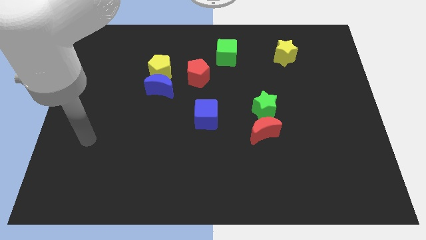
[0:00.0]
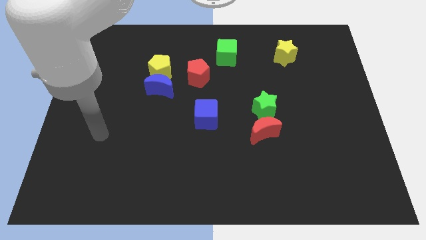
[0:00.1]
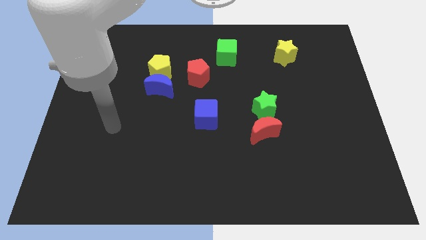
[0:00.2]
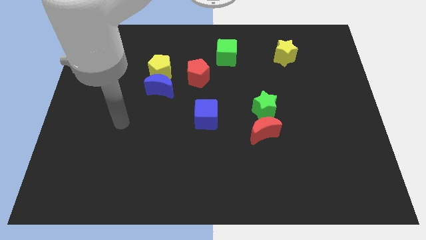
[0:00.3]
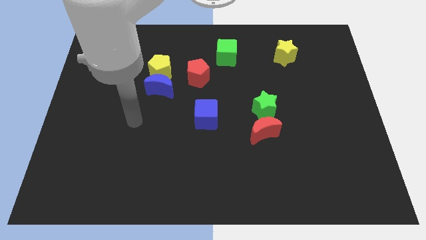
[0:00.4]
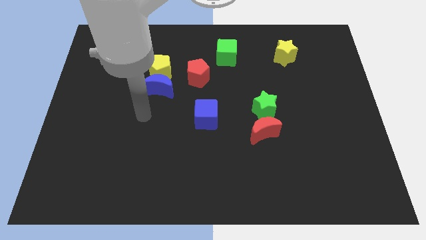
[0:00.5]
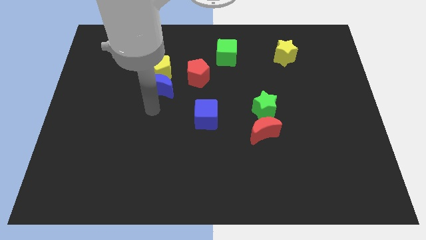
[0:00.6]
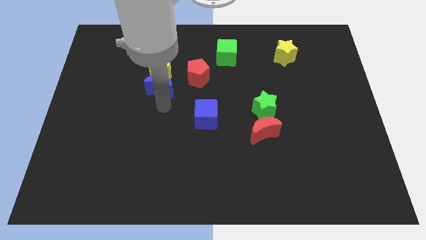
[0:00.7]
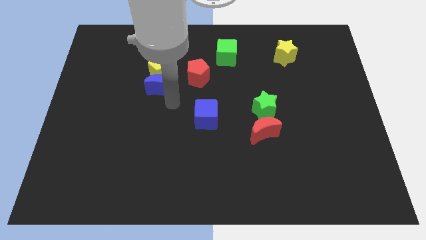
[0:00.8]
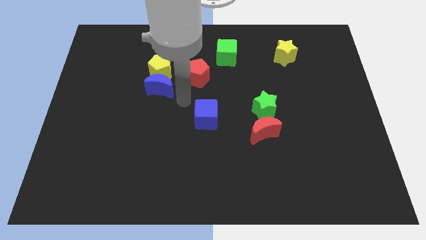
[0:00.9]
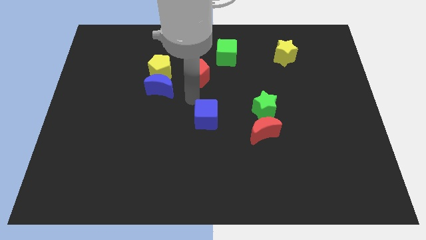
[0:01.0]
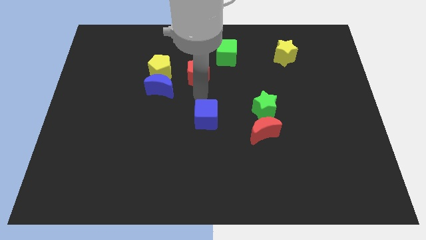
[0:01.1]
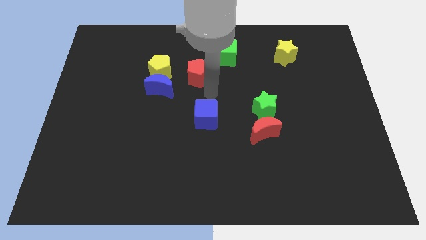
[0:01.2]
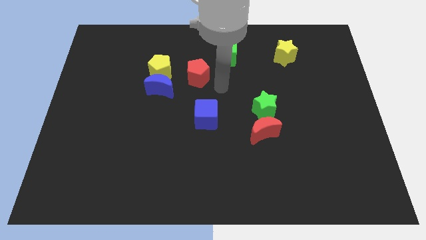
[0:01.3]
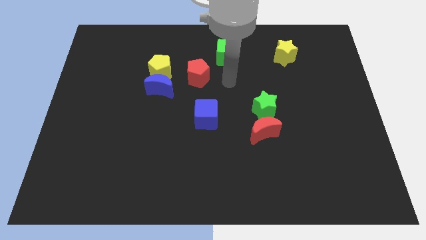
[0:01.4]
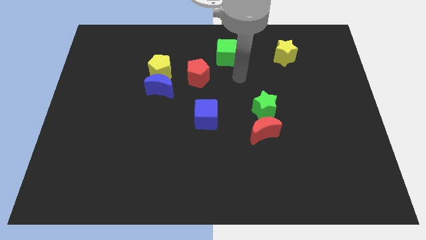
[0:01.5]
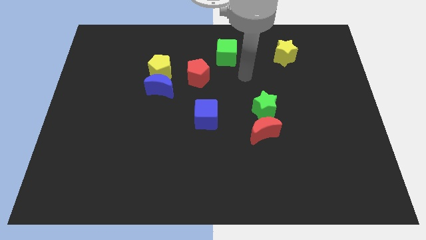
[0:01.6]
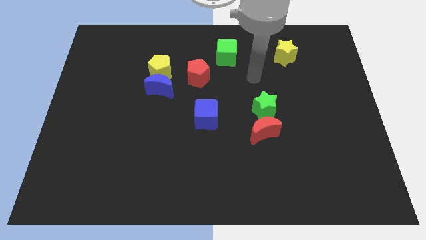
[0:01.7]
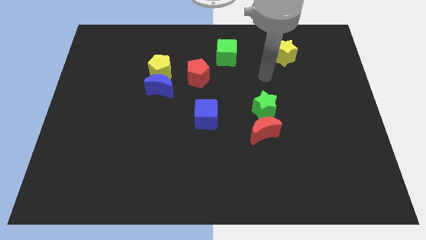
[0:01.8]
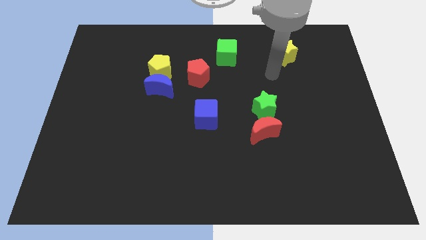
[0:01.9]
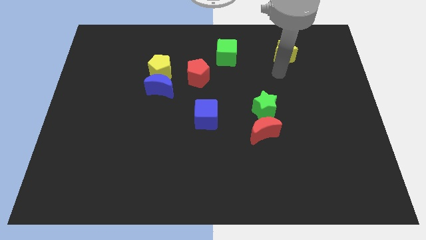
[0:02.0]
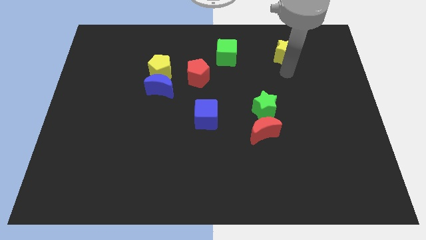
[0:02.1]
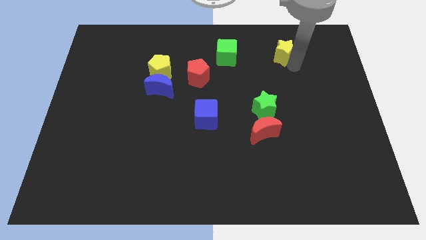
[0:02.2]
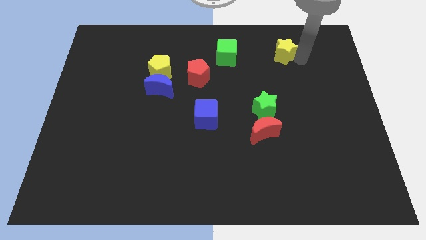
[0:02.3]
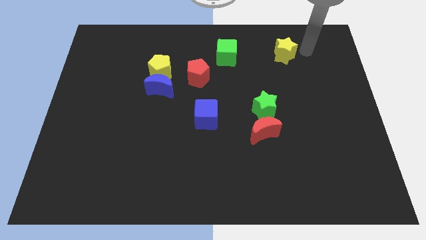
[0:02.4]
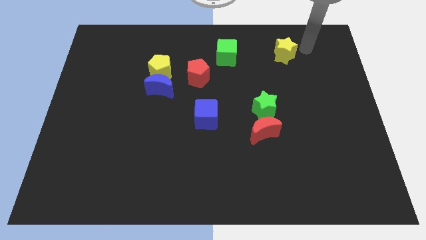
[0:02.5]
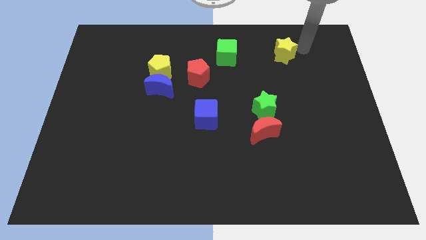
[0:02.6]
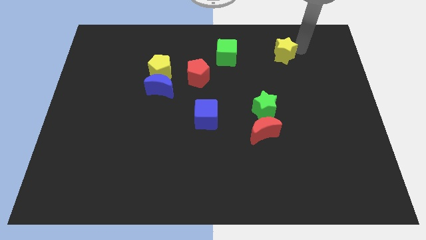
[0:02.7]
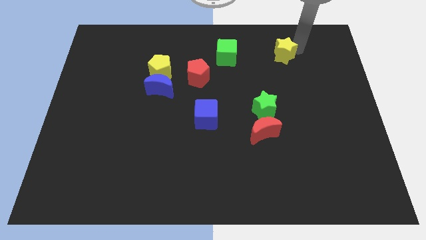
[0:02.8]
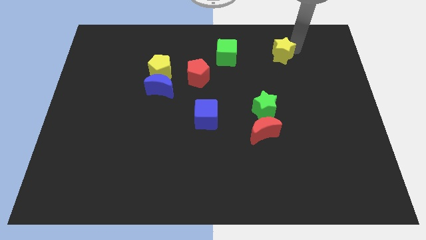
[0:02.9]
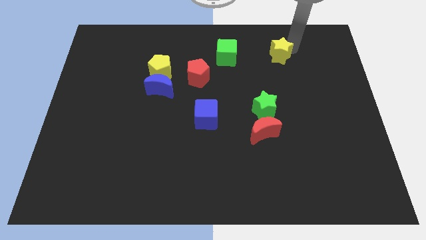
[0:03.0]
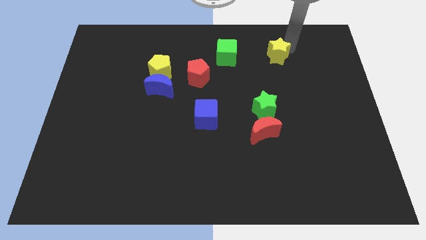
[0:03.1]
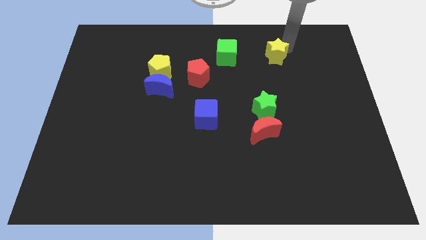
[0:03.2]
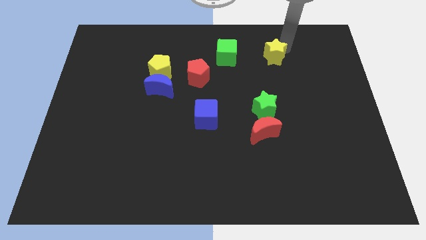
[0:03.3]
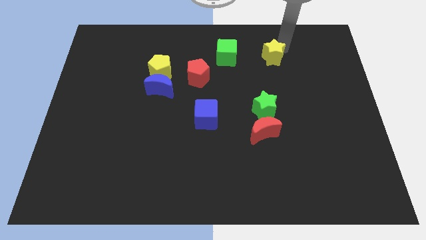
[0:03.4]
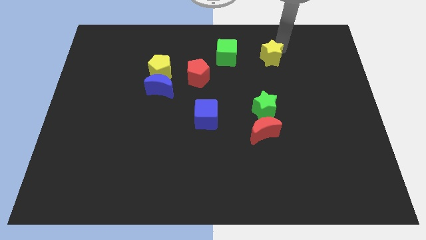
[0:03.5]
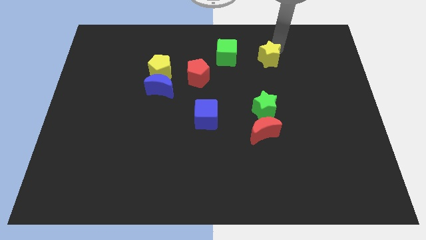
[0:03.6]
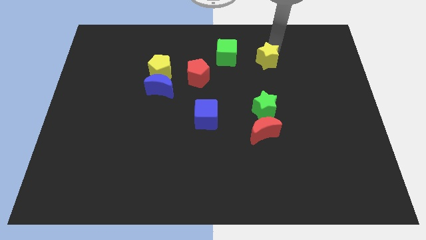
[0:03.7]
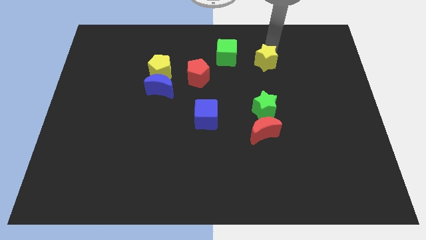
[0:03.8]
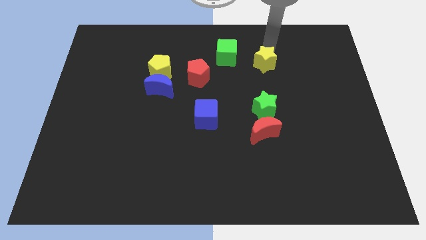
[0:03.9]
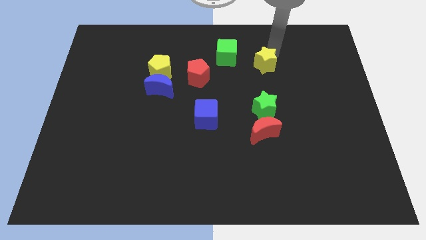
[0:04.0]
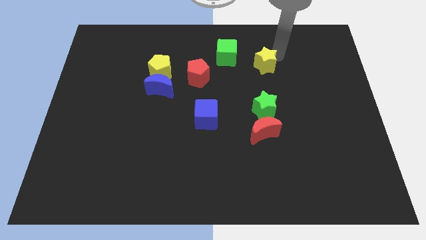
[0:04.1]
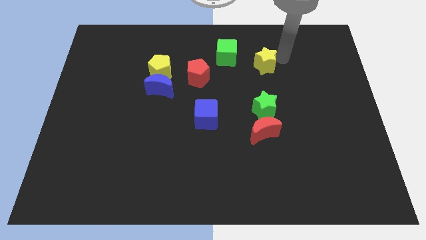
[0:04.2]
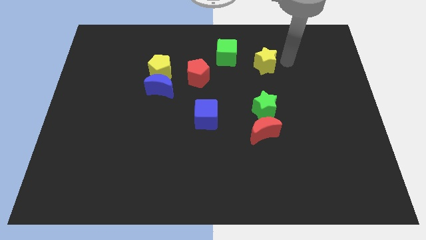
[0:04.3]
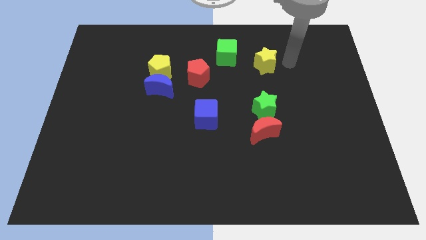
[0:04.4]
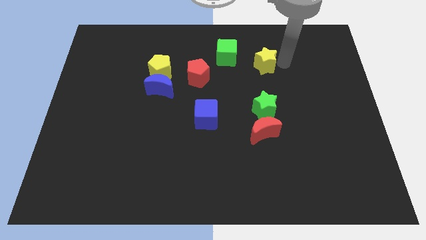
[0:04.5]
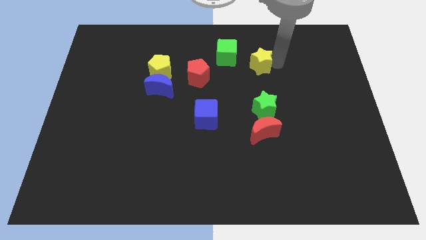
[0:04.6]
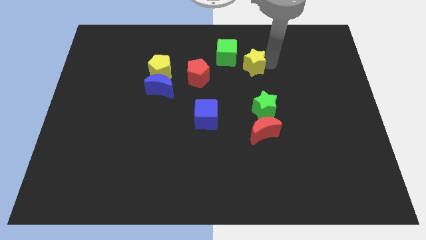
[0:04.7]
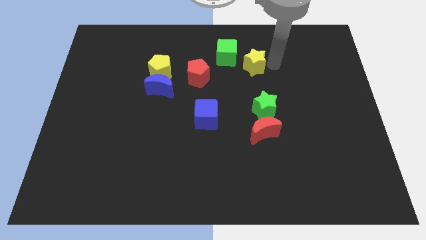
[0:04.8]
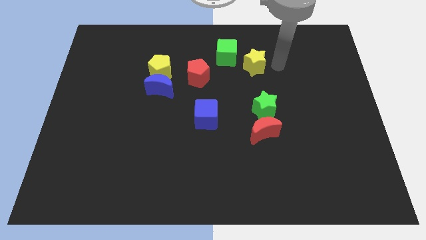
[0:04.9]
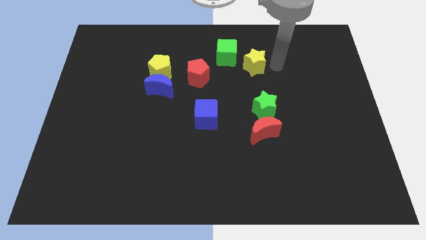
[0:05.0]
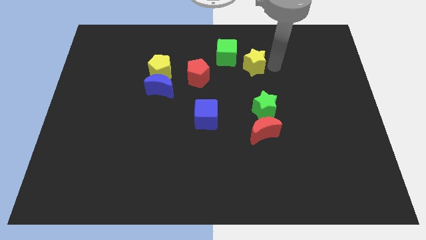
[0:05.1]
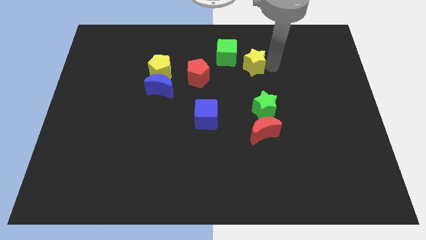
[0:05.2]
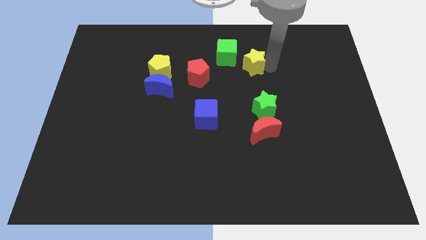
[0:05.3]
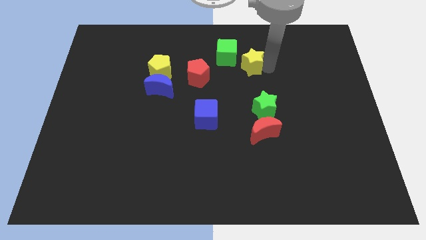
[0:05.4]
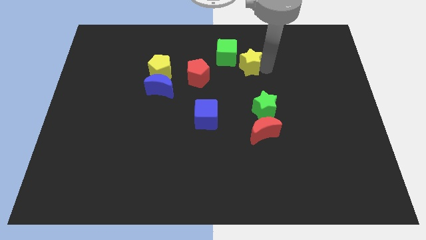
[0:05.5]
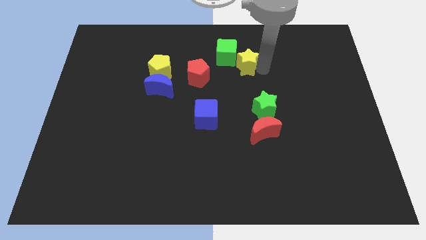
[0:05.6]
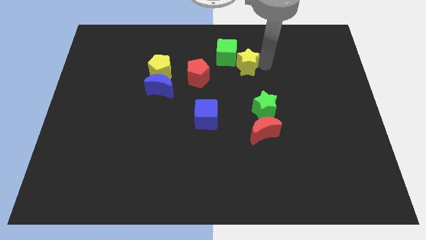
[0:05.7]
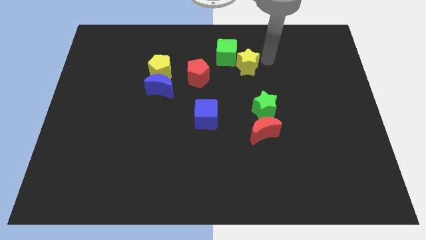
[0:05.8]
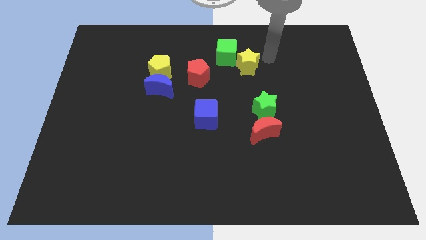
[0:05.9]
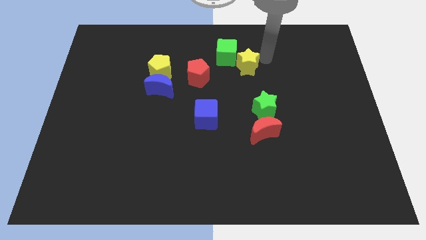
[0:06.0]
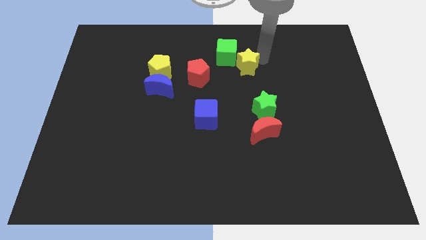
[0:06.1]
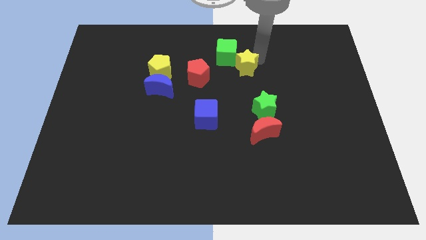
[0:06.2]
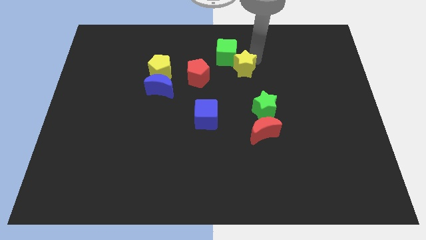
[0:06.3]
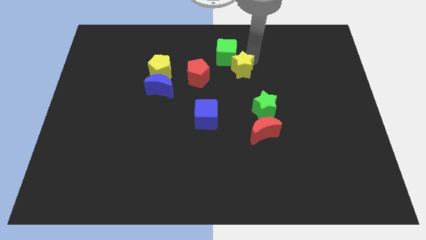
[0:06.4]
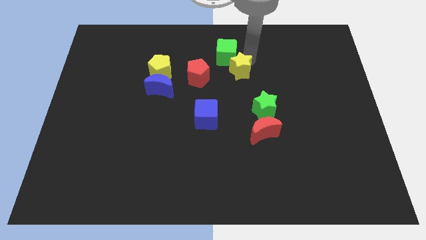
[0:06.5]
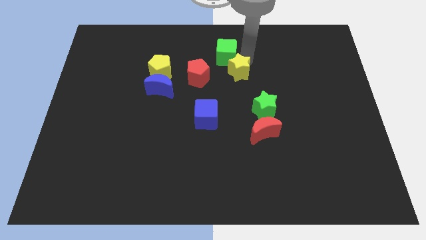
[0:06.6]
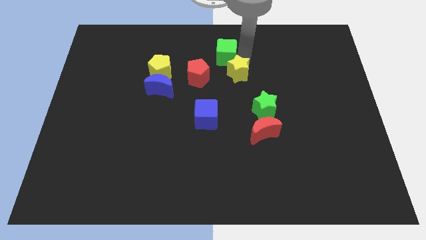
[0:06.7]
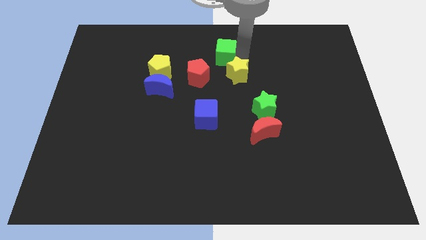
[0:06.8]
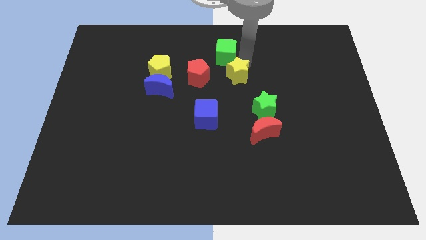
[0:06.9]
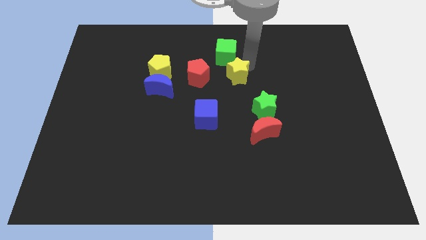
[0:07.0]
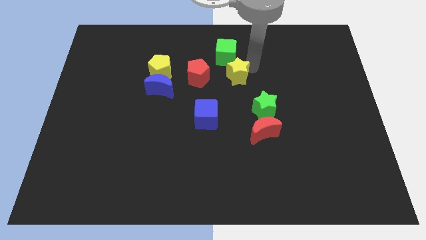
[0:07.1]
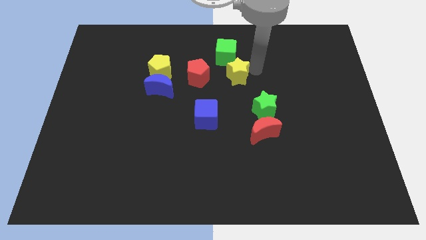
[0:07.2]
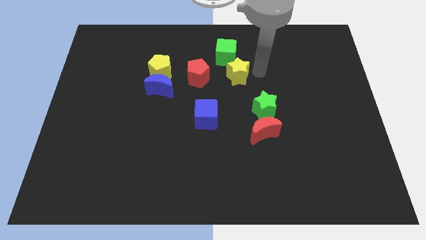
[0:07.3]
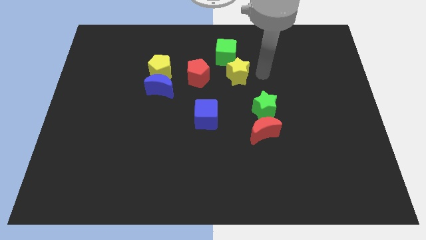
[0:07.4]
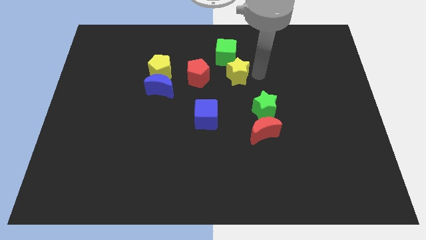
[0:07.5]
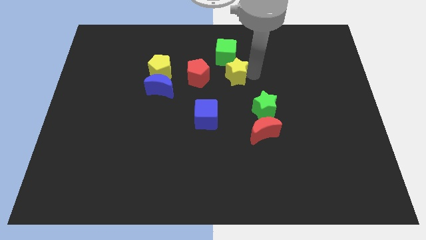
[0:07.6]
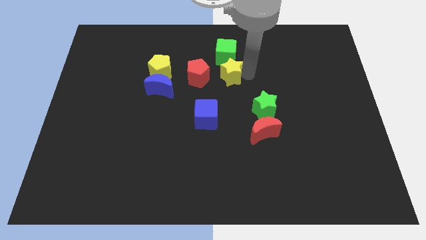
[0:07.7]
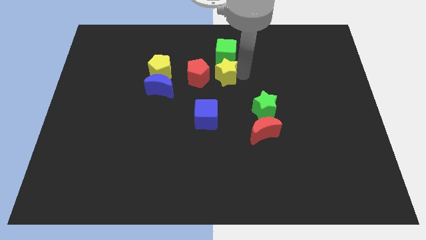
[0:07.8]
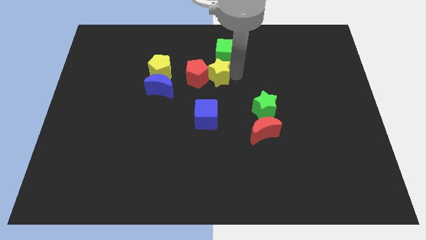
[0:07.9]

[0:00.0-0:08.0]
slide the yellow star close to the red pentagon
